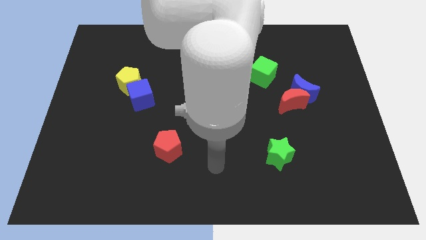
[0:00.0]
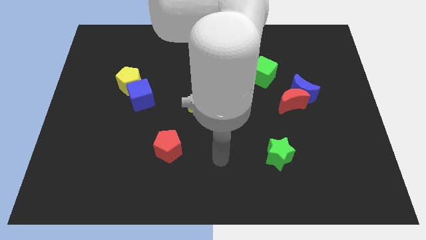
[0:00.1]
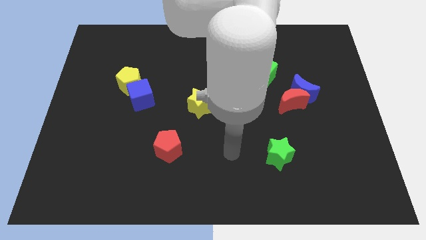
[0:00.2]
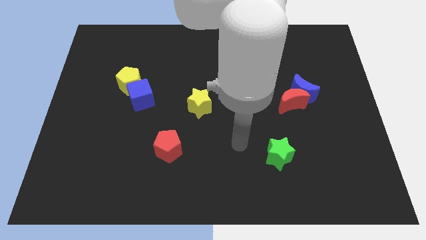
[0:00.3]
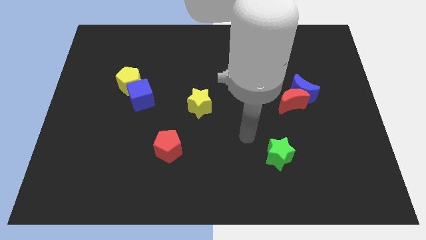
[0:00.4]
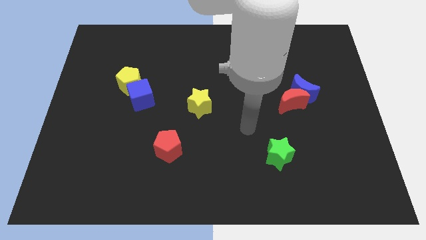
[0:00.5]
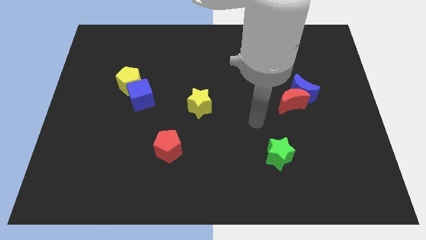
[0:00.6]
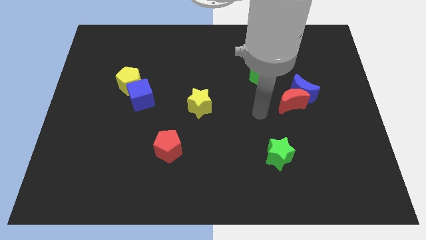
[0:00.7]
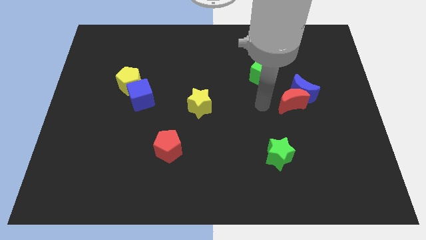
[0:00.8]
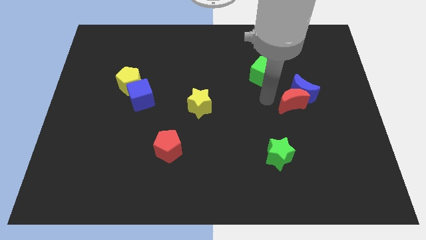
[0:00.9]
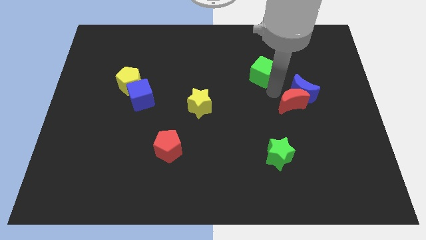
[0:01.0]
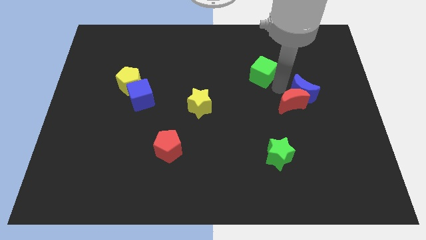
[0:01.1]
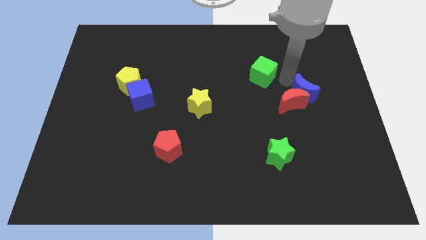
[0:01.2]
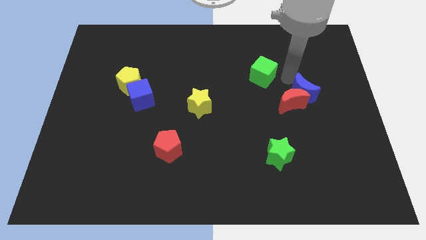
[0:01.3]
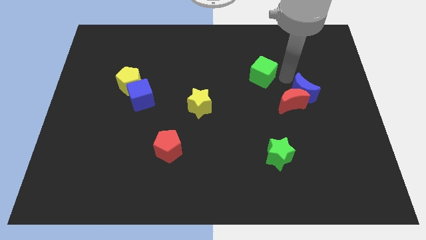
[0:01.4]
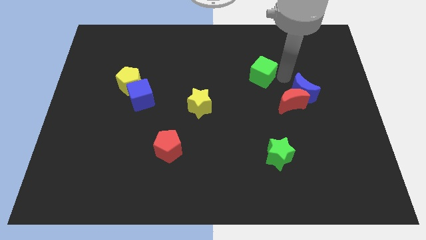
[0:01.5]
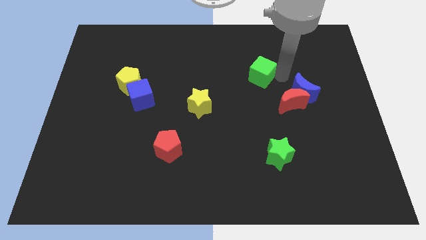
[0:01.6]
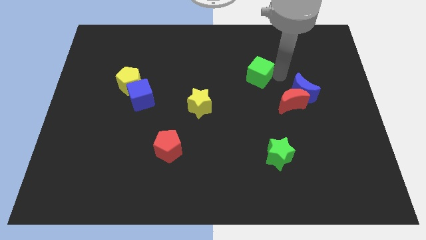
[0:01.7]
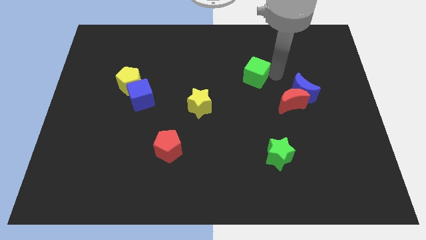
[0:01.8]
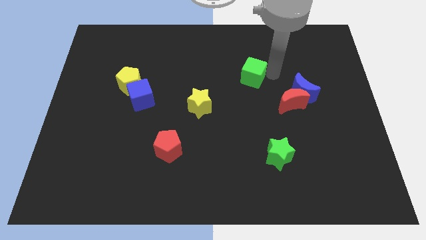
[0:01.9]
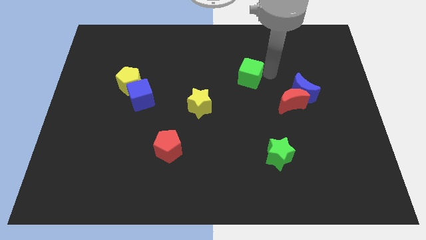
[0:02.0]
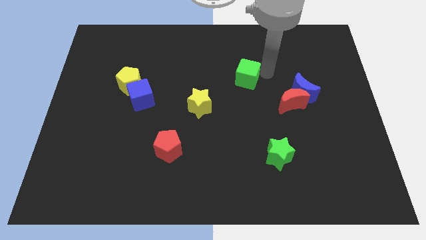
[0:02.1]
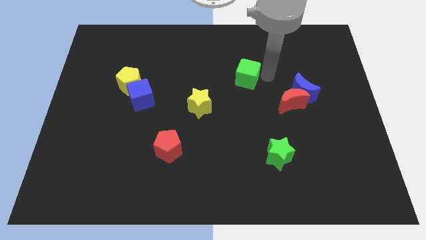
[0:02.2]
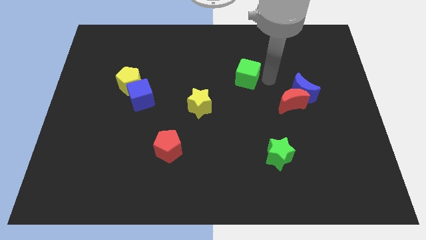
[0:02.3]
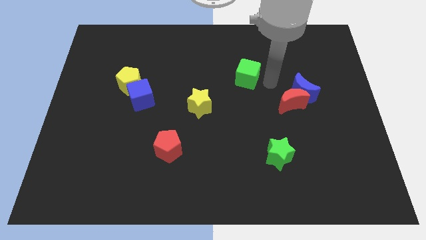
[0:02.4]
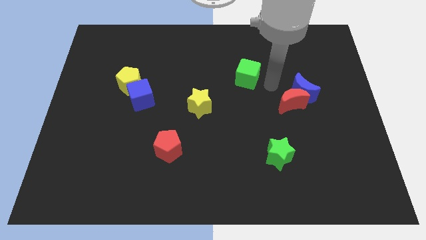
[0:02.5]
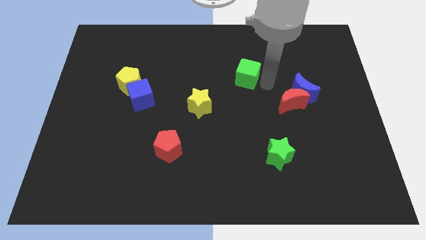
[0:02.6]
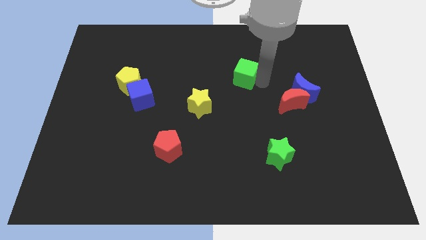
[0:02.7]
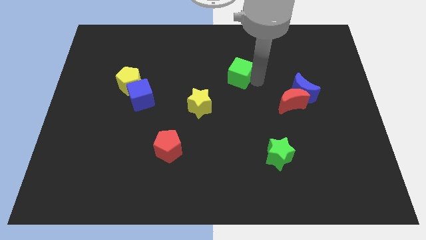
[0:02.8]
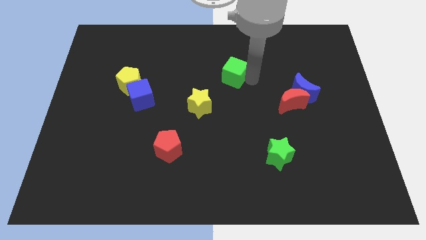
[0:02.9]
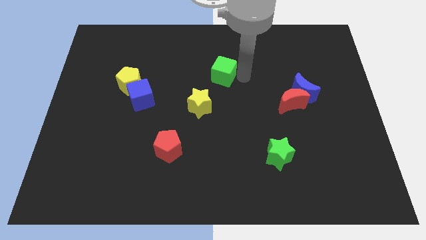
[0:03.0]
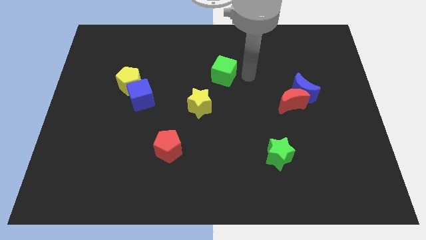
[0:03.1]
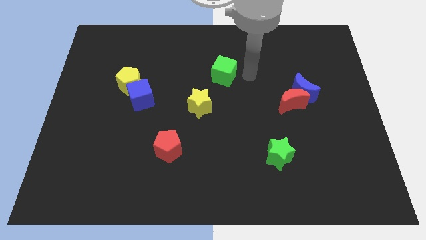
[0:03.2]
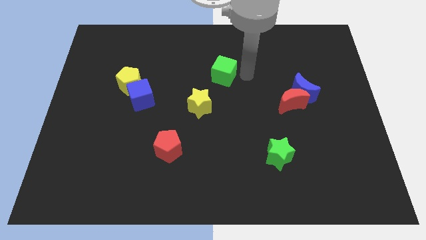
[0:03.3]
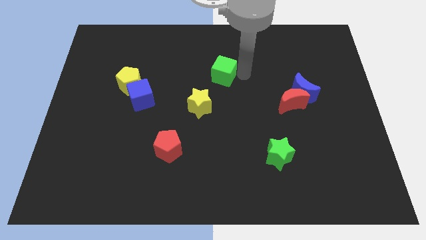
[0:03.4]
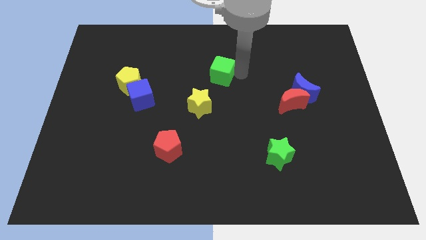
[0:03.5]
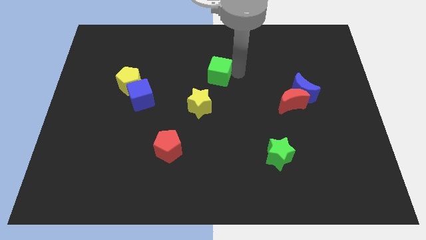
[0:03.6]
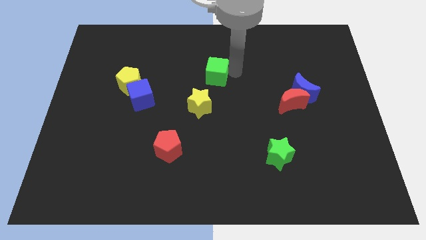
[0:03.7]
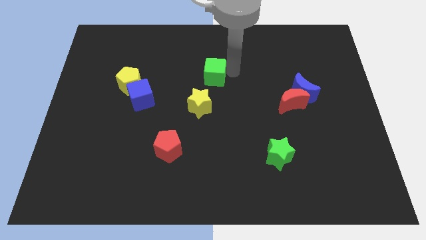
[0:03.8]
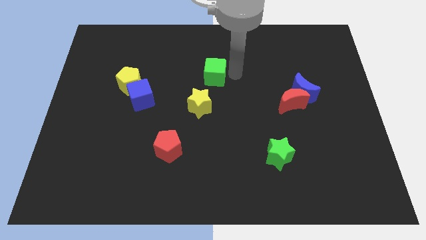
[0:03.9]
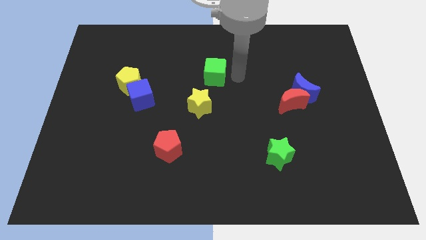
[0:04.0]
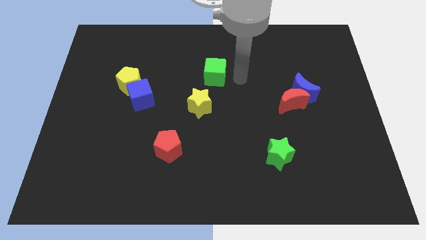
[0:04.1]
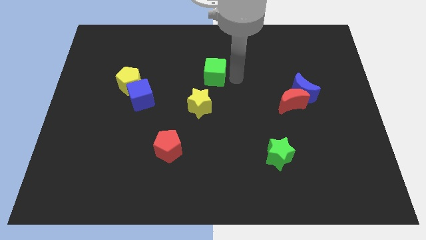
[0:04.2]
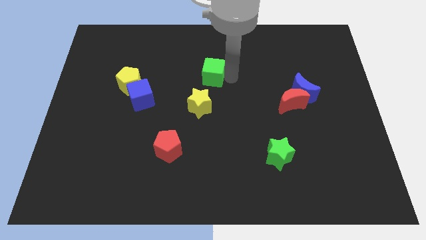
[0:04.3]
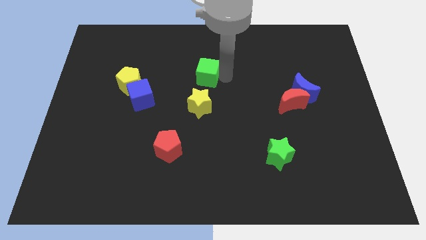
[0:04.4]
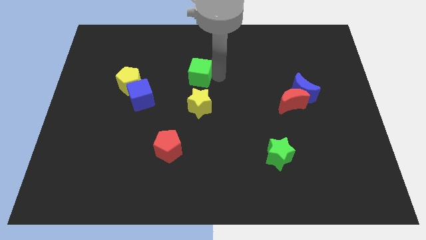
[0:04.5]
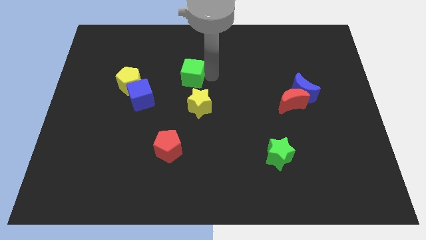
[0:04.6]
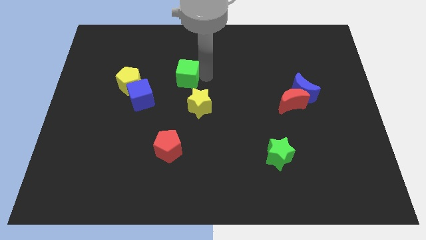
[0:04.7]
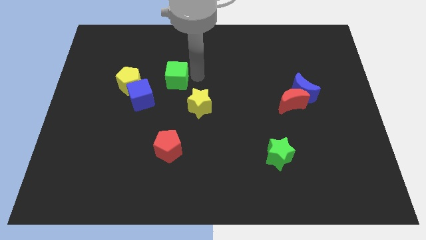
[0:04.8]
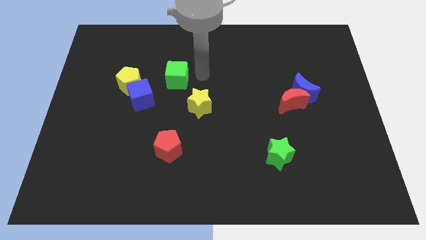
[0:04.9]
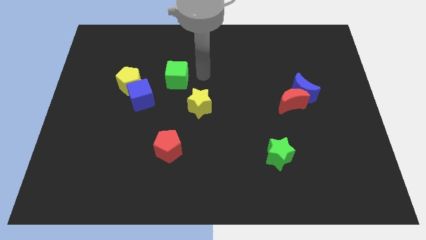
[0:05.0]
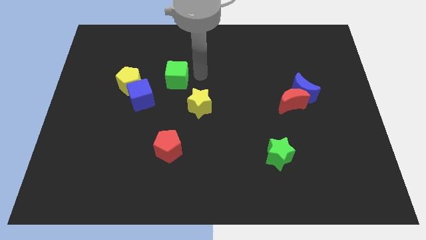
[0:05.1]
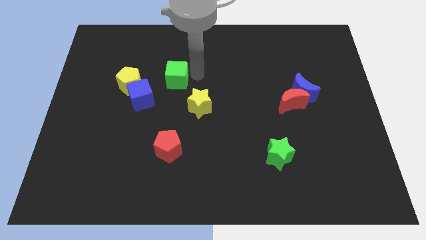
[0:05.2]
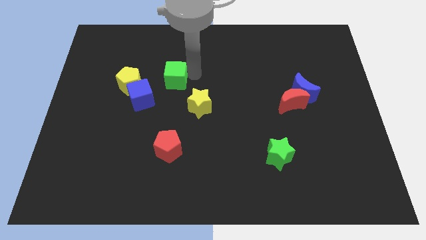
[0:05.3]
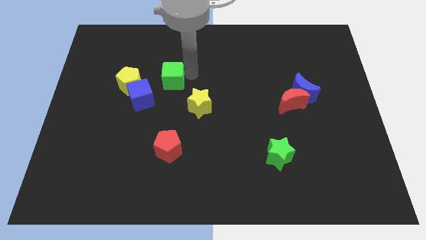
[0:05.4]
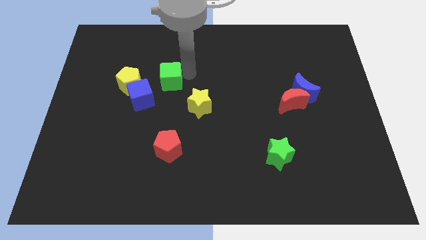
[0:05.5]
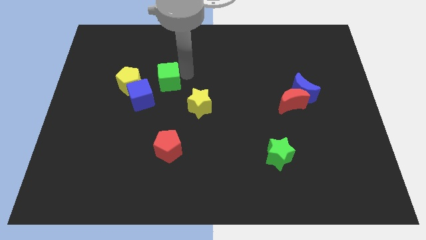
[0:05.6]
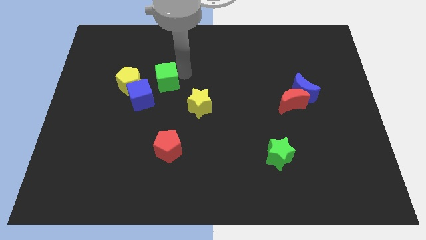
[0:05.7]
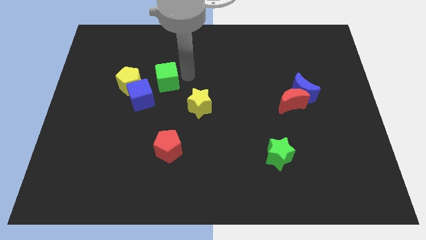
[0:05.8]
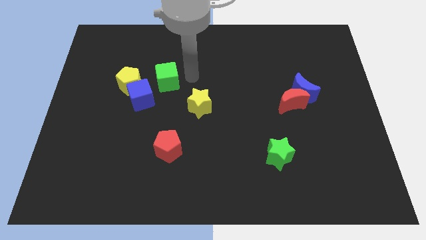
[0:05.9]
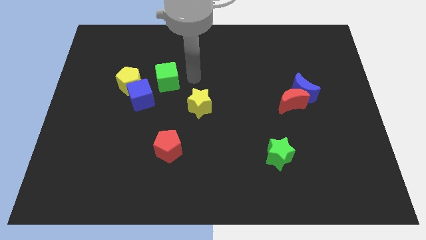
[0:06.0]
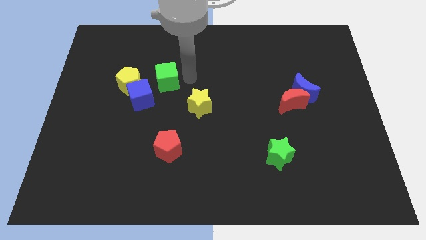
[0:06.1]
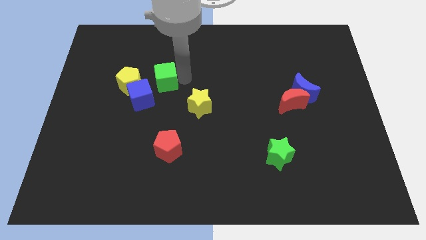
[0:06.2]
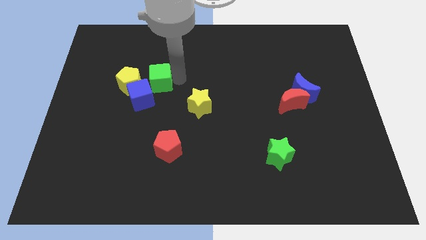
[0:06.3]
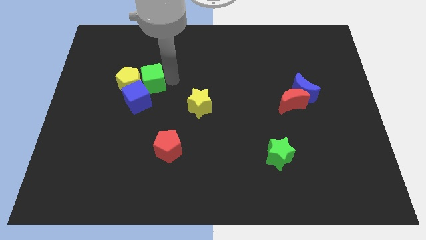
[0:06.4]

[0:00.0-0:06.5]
move the green cube towards the yellow pentagon
